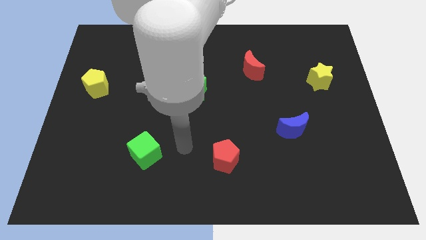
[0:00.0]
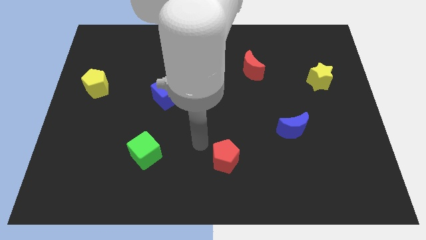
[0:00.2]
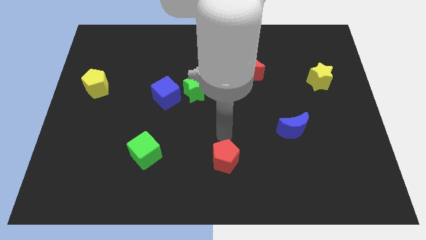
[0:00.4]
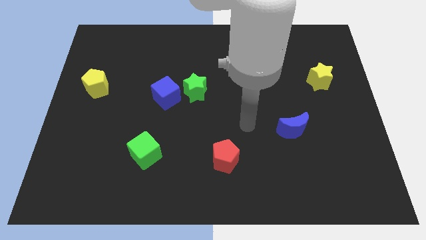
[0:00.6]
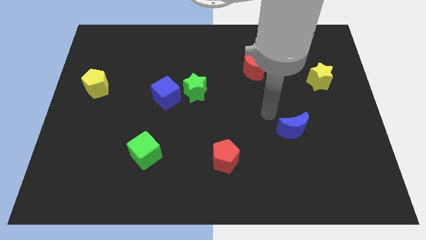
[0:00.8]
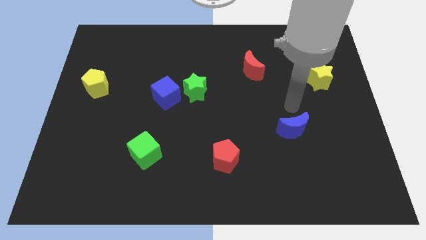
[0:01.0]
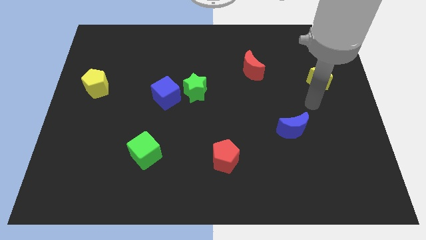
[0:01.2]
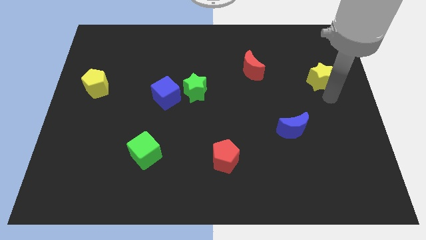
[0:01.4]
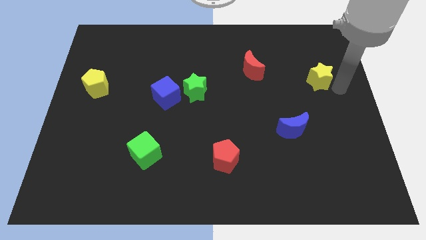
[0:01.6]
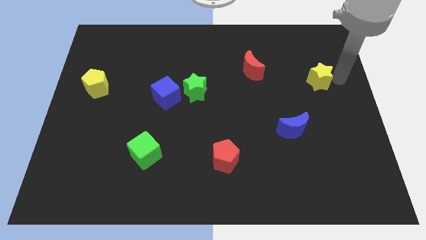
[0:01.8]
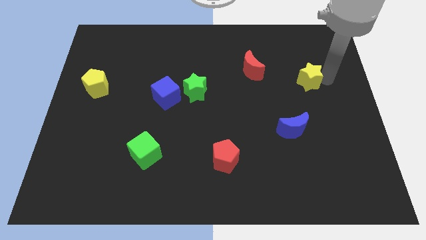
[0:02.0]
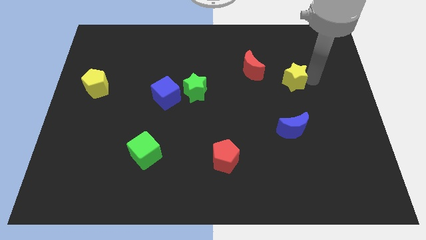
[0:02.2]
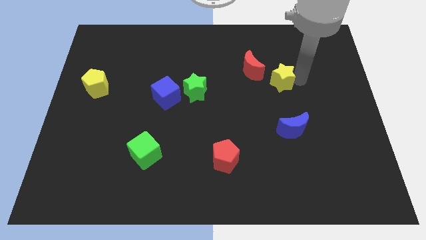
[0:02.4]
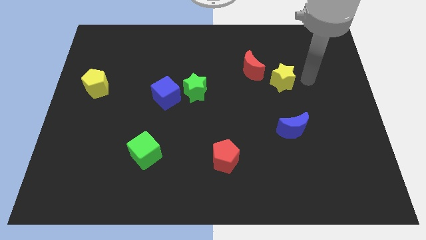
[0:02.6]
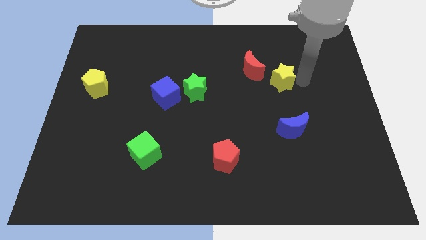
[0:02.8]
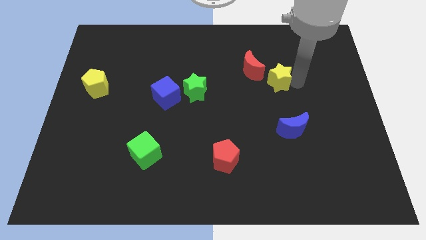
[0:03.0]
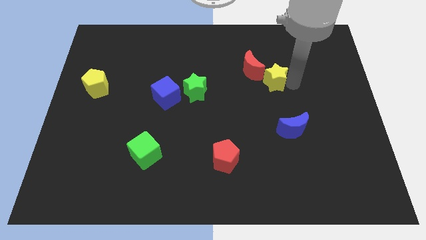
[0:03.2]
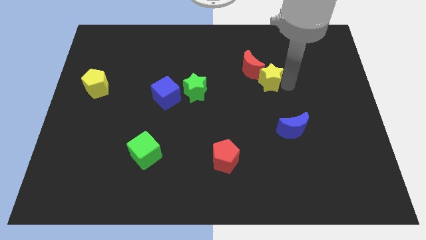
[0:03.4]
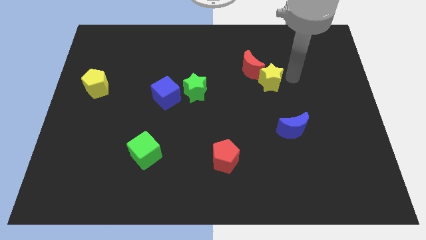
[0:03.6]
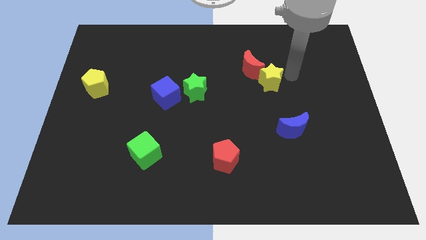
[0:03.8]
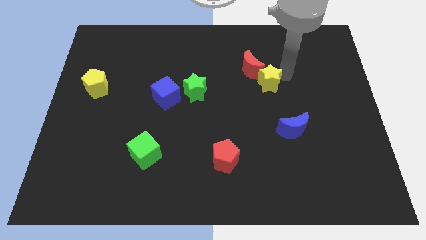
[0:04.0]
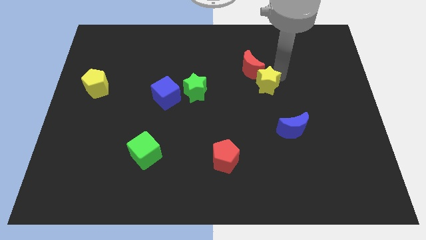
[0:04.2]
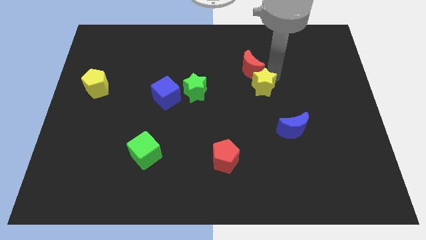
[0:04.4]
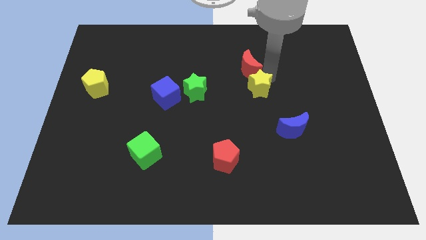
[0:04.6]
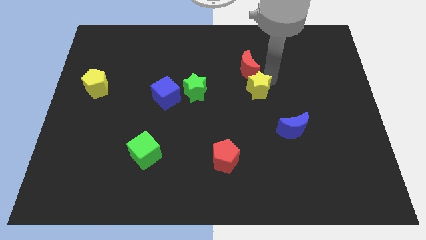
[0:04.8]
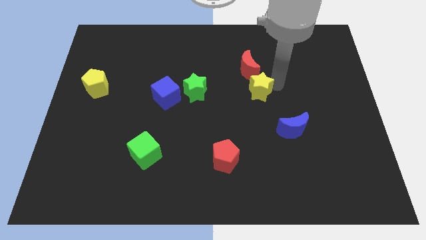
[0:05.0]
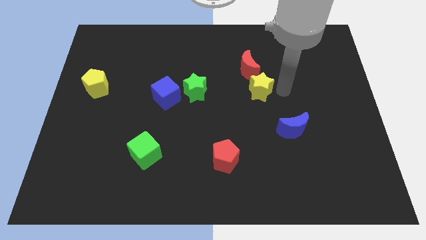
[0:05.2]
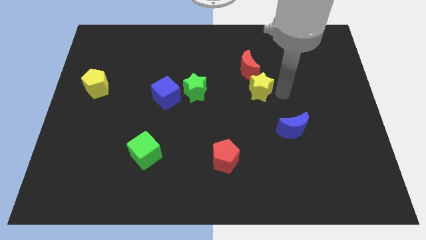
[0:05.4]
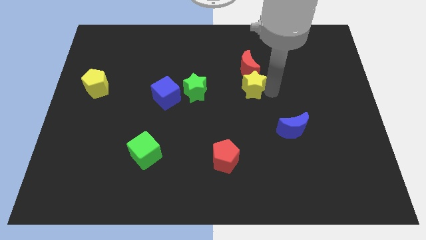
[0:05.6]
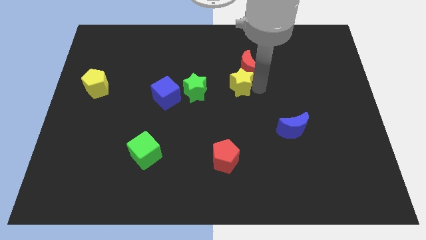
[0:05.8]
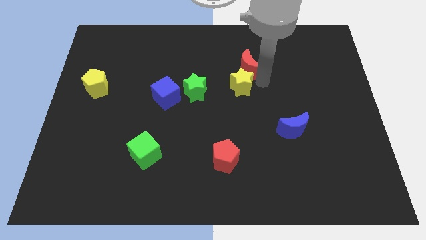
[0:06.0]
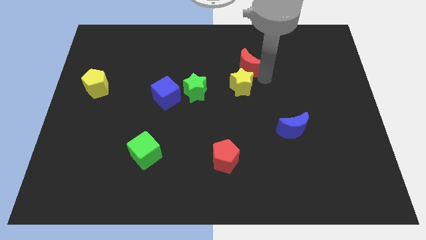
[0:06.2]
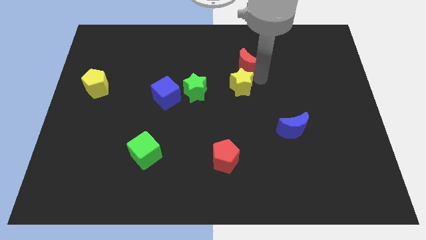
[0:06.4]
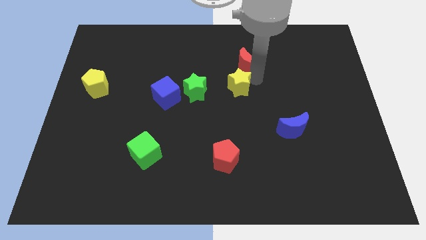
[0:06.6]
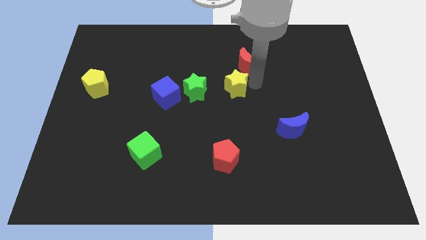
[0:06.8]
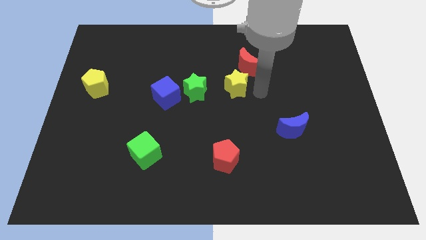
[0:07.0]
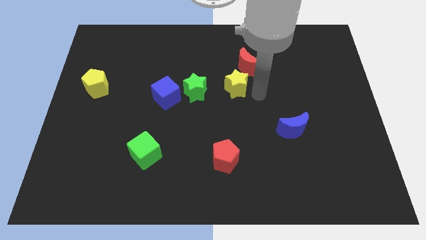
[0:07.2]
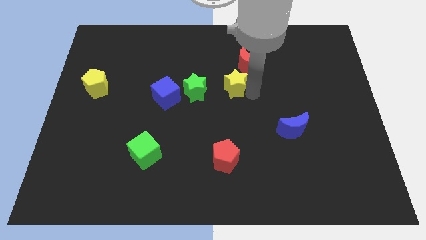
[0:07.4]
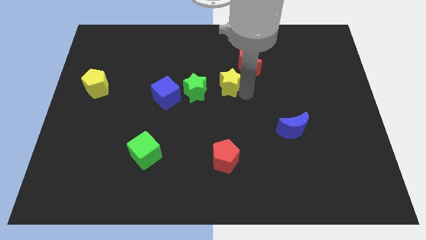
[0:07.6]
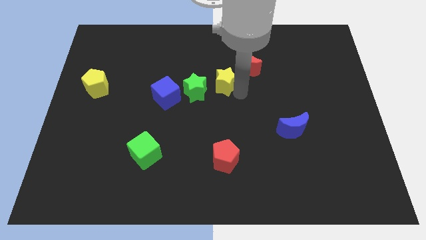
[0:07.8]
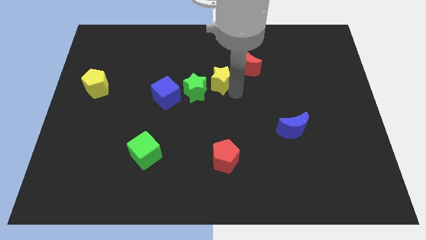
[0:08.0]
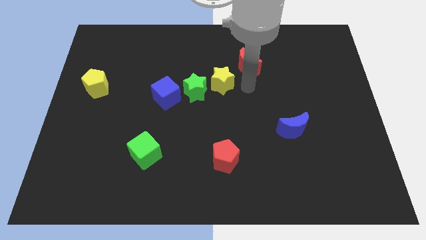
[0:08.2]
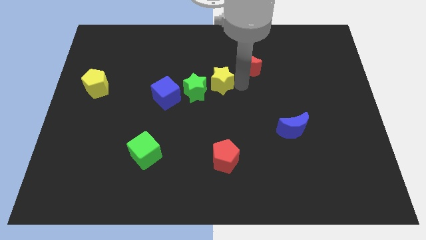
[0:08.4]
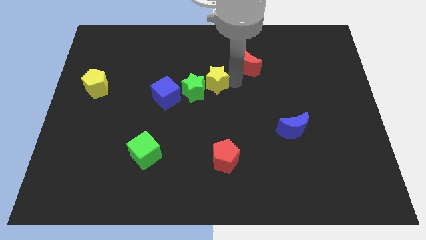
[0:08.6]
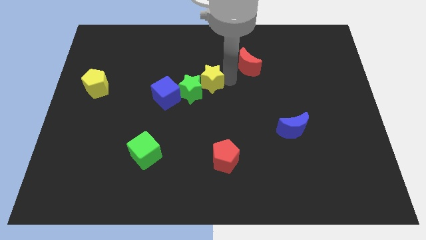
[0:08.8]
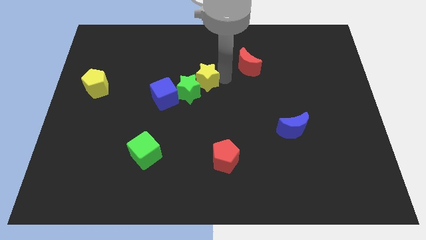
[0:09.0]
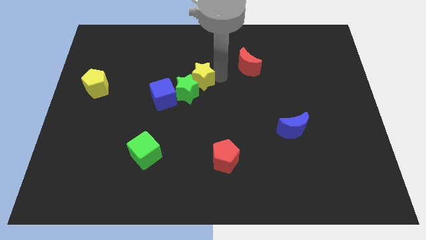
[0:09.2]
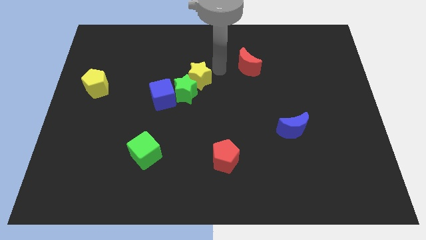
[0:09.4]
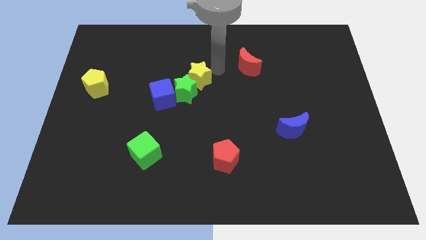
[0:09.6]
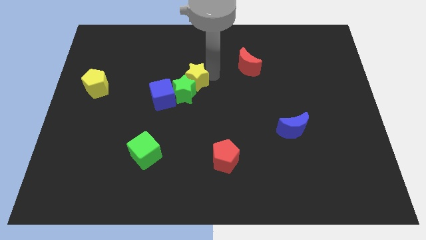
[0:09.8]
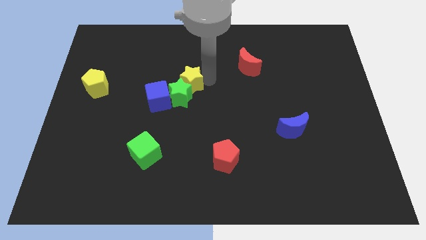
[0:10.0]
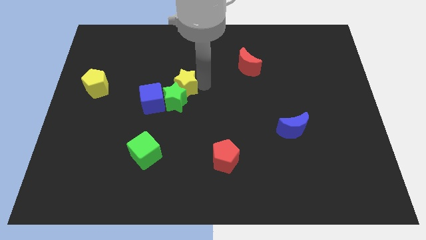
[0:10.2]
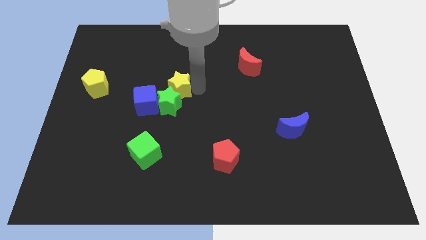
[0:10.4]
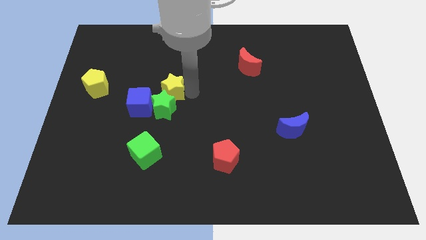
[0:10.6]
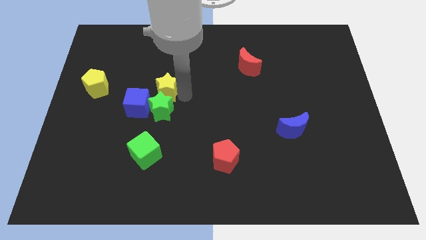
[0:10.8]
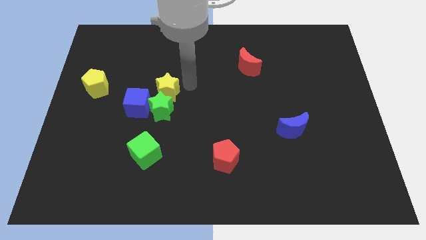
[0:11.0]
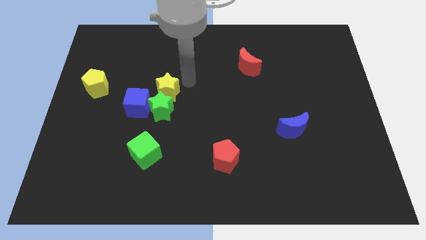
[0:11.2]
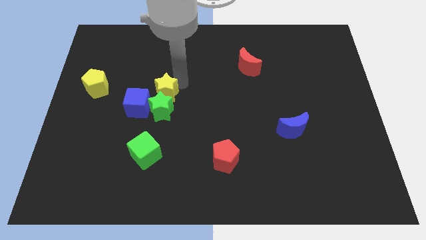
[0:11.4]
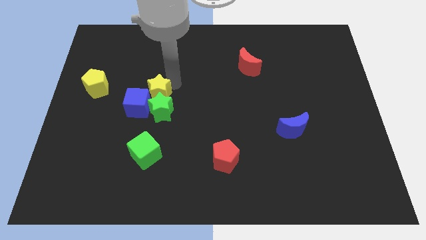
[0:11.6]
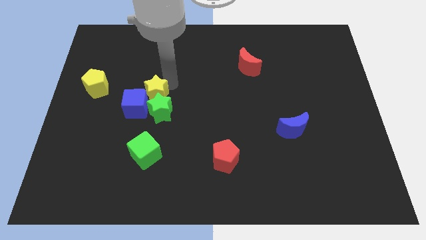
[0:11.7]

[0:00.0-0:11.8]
slide the yellow star to the blue cube
